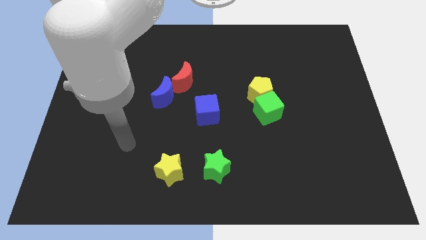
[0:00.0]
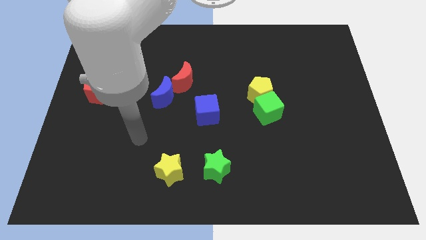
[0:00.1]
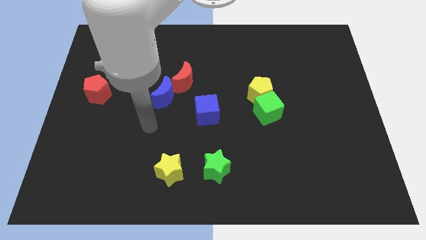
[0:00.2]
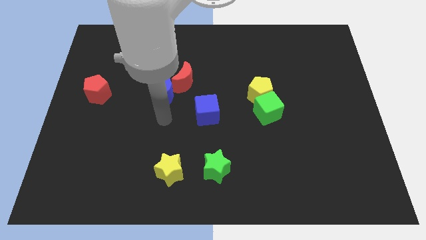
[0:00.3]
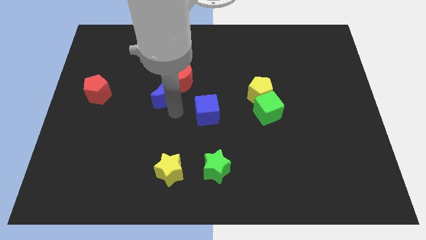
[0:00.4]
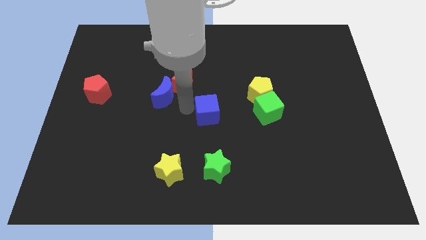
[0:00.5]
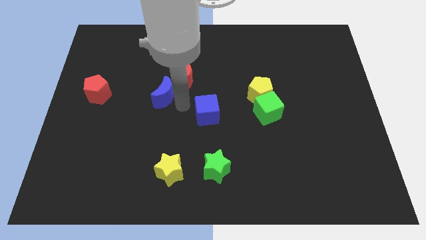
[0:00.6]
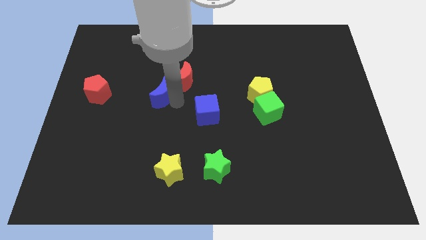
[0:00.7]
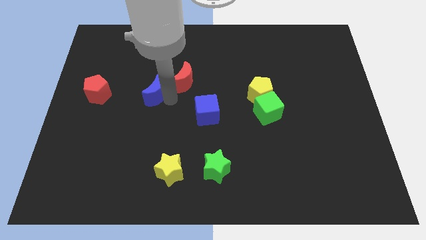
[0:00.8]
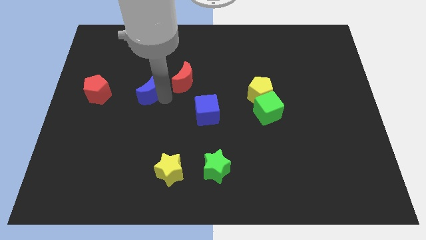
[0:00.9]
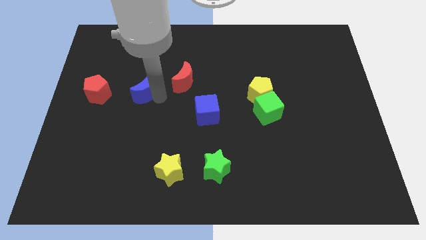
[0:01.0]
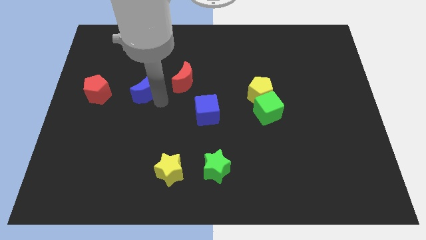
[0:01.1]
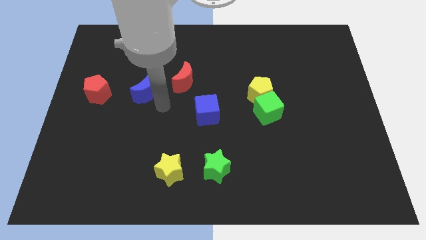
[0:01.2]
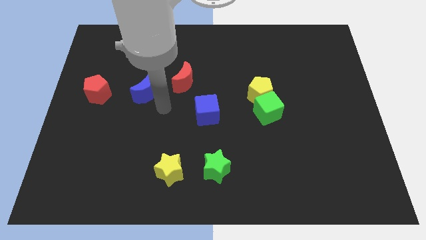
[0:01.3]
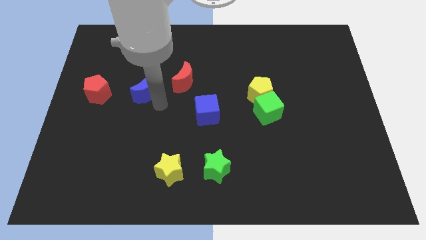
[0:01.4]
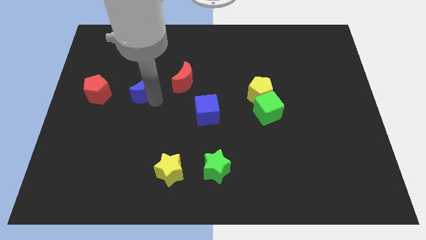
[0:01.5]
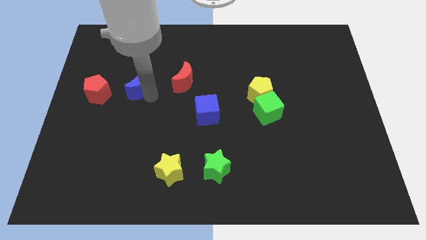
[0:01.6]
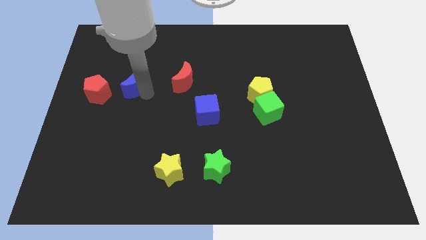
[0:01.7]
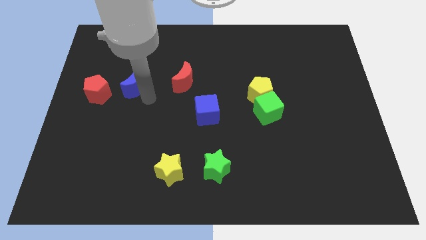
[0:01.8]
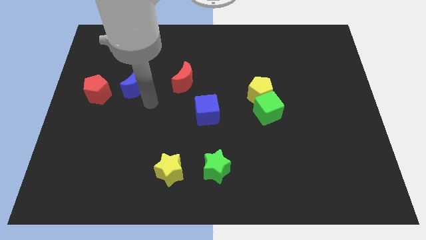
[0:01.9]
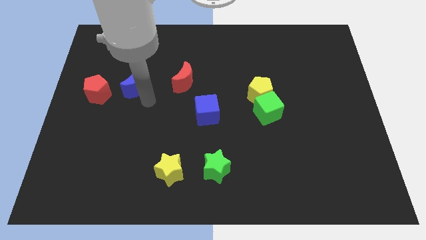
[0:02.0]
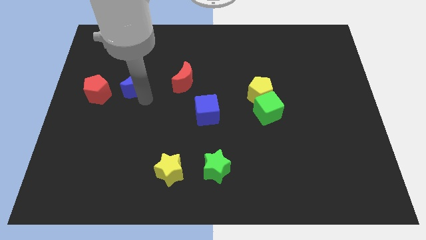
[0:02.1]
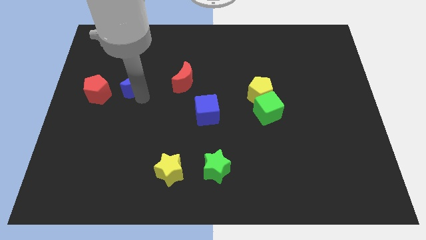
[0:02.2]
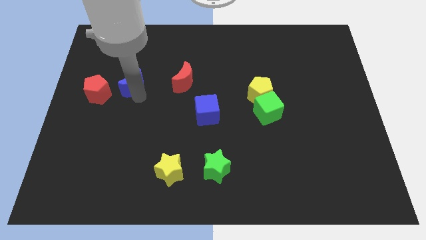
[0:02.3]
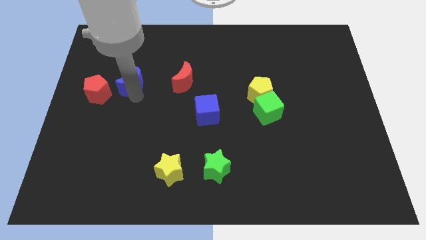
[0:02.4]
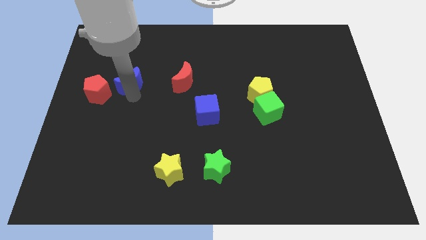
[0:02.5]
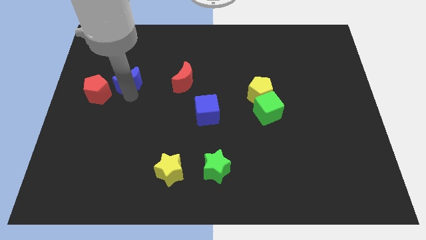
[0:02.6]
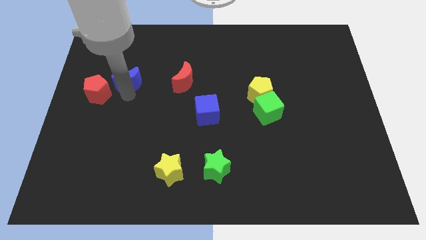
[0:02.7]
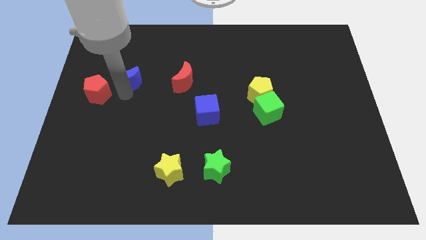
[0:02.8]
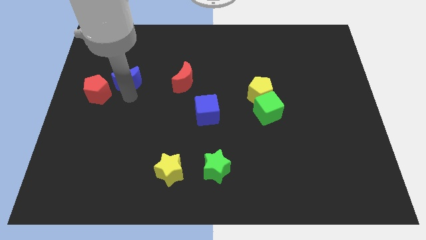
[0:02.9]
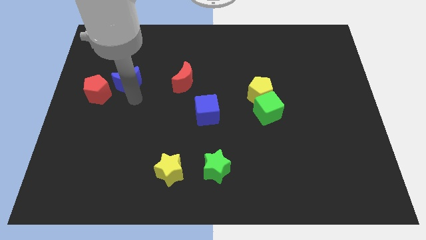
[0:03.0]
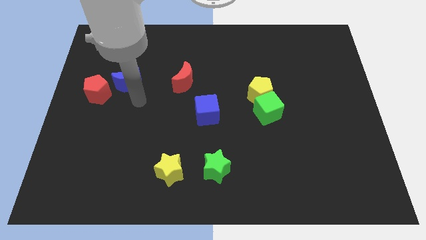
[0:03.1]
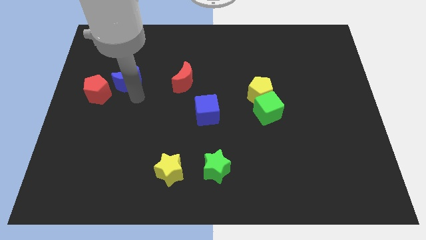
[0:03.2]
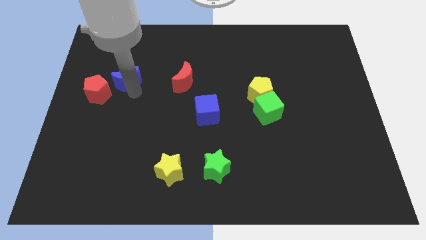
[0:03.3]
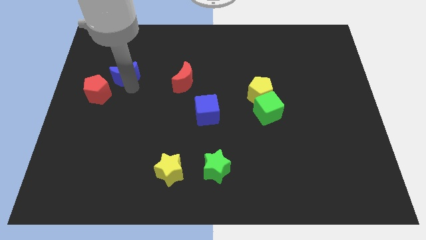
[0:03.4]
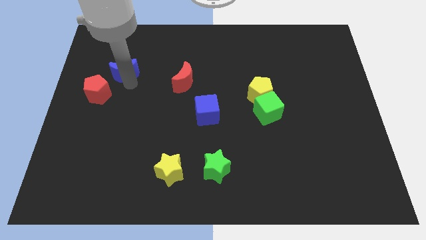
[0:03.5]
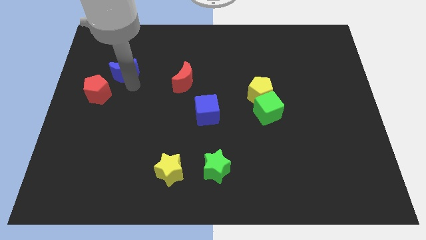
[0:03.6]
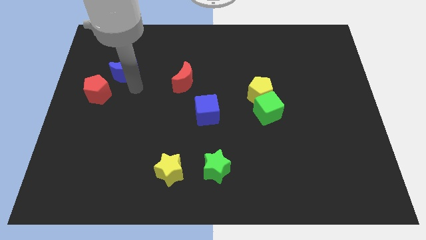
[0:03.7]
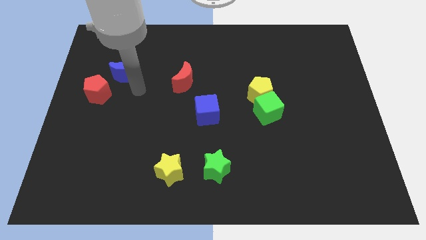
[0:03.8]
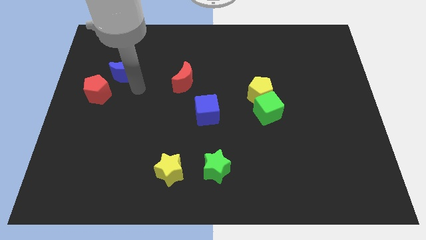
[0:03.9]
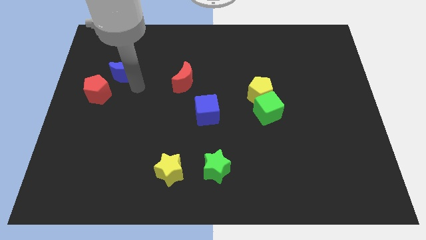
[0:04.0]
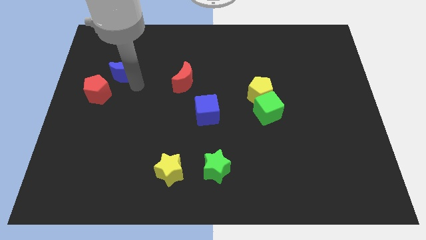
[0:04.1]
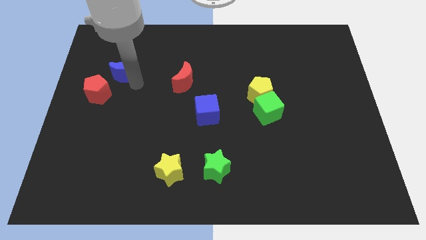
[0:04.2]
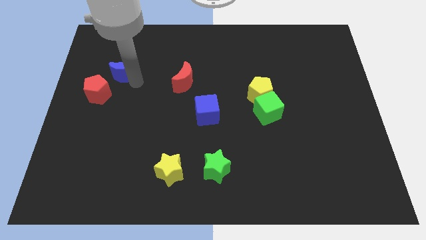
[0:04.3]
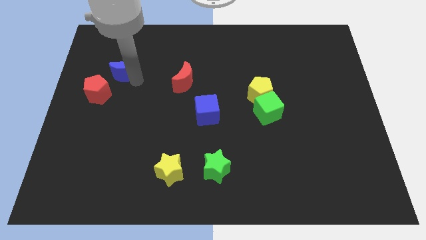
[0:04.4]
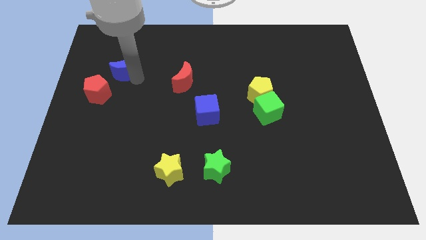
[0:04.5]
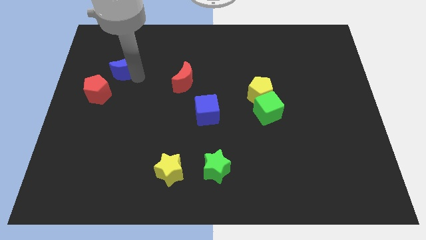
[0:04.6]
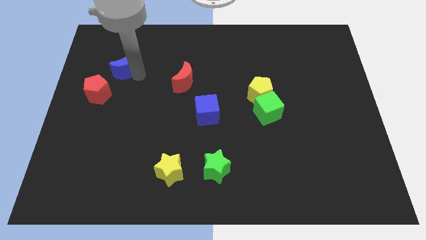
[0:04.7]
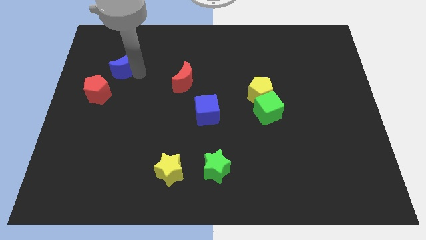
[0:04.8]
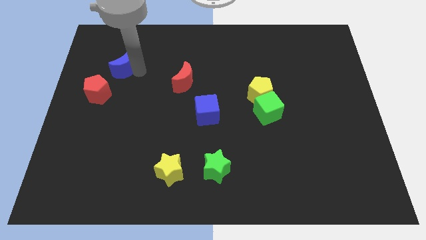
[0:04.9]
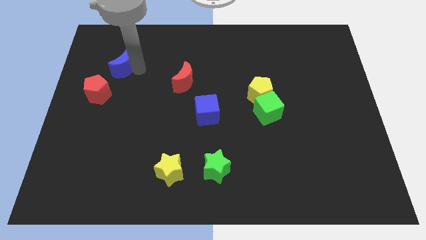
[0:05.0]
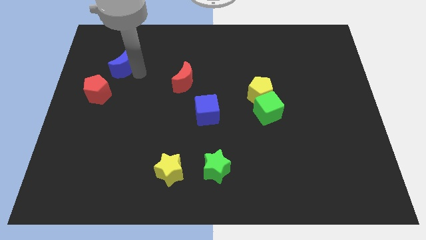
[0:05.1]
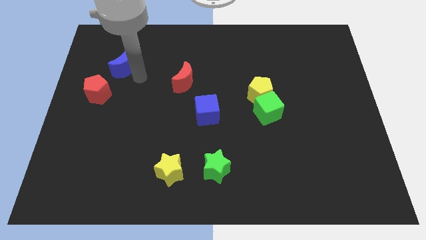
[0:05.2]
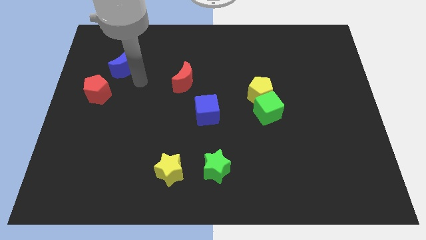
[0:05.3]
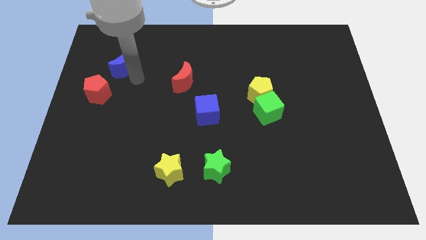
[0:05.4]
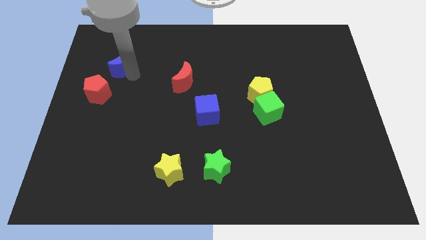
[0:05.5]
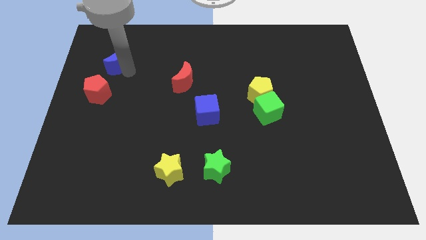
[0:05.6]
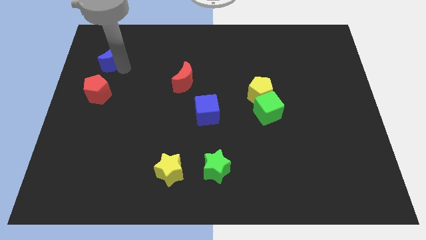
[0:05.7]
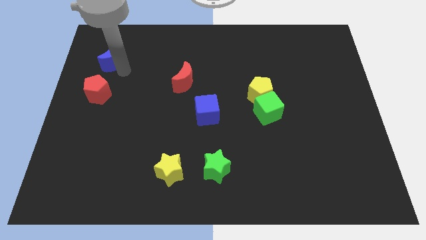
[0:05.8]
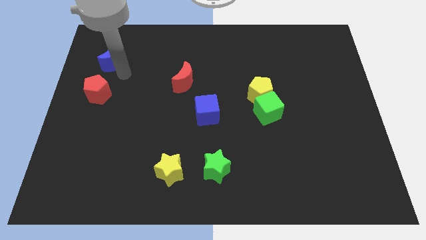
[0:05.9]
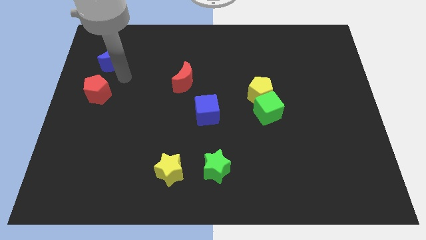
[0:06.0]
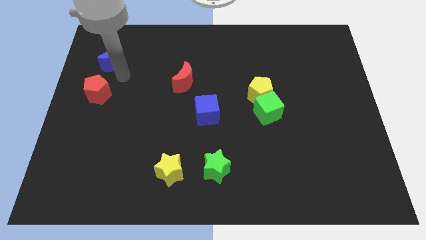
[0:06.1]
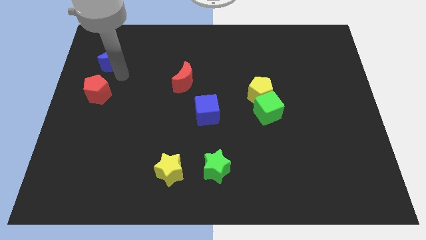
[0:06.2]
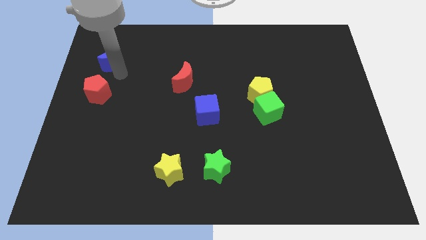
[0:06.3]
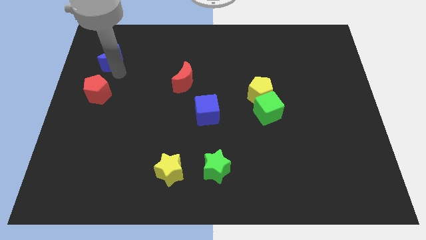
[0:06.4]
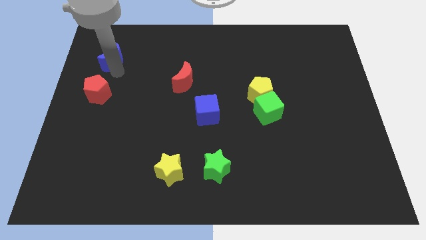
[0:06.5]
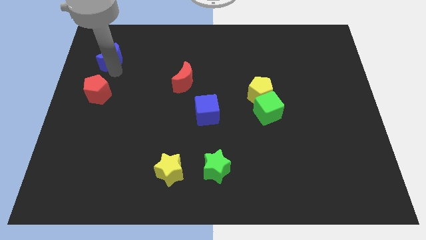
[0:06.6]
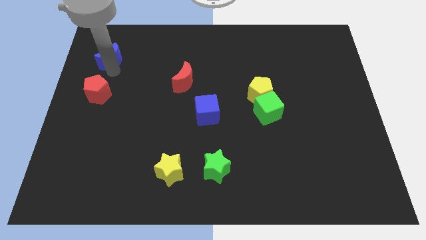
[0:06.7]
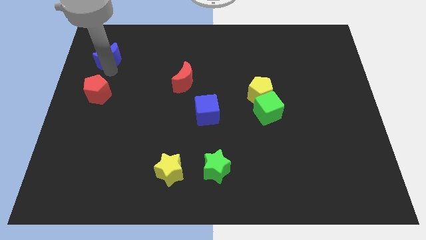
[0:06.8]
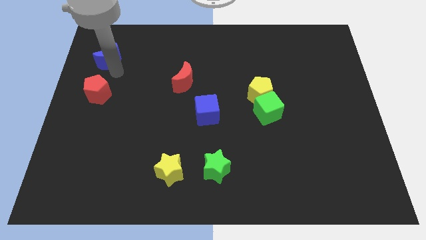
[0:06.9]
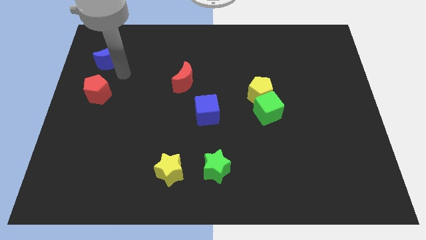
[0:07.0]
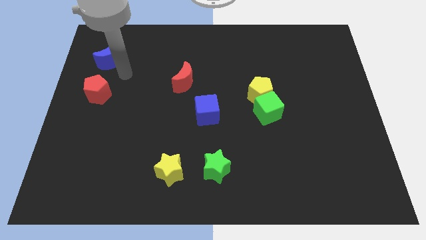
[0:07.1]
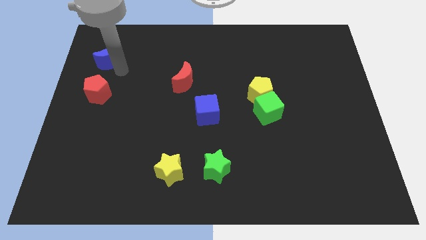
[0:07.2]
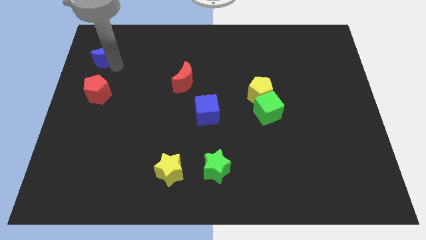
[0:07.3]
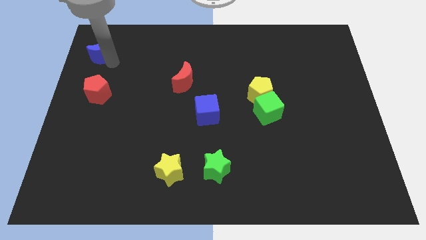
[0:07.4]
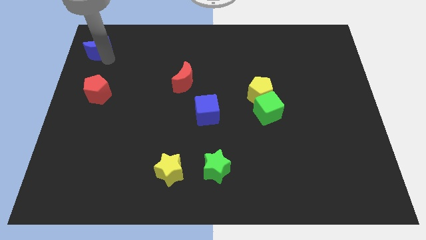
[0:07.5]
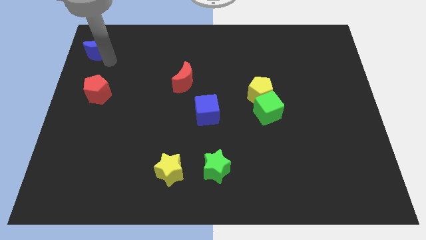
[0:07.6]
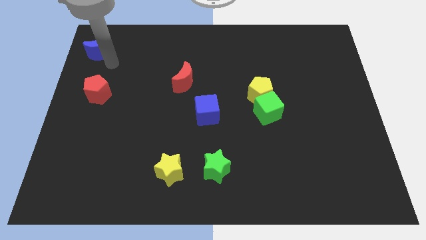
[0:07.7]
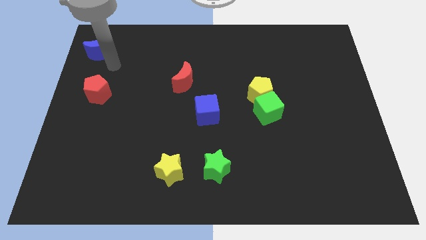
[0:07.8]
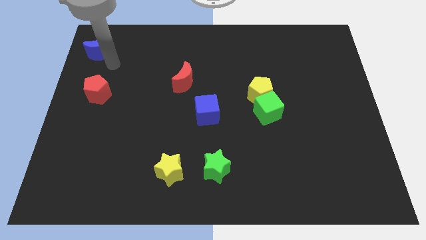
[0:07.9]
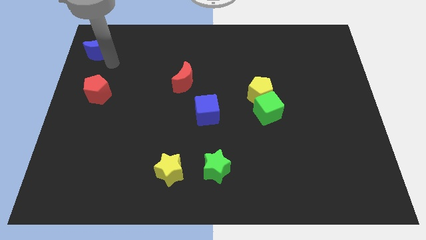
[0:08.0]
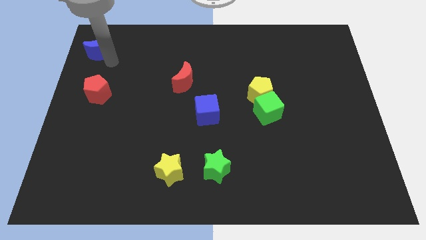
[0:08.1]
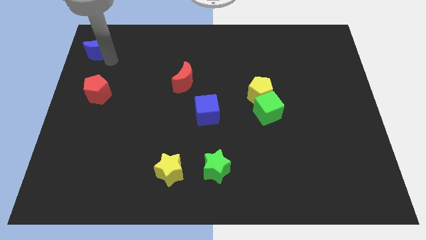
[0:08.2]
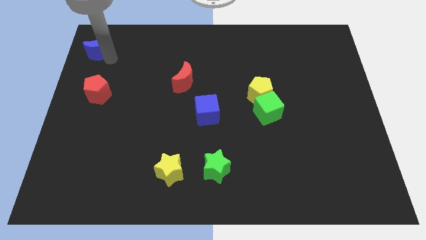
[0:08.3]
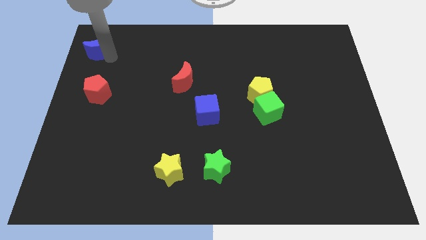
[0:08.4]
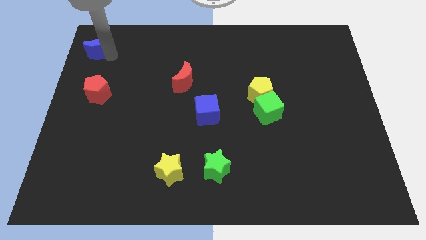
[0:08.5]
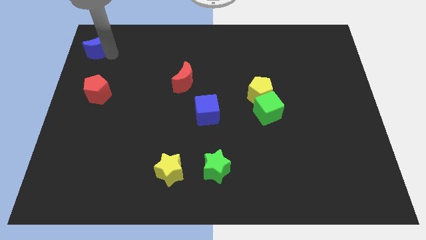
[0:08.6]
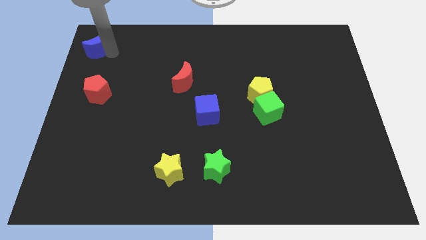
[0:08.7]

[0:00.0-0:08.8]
put the blue moon to the top left corner
